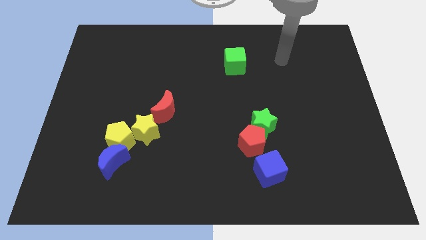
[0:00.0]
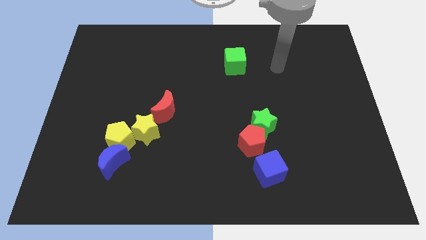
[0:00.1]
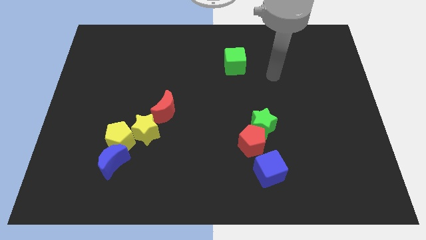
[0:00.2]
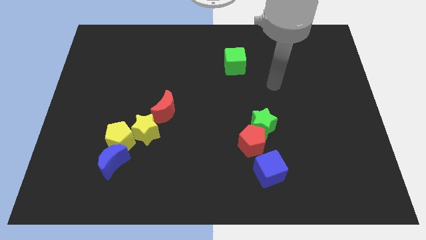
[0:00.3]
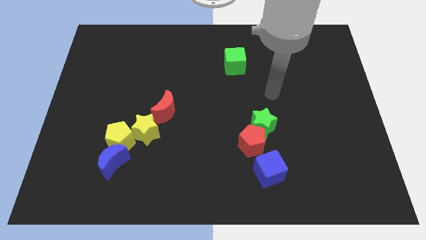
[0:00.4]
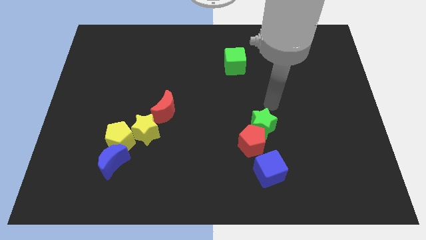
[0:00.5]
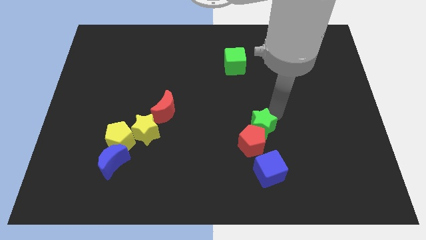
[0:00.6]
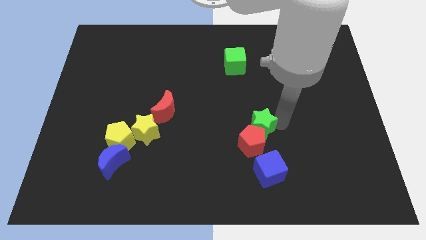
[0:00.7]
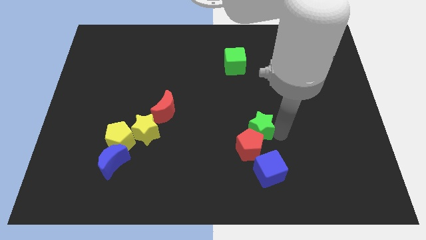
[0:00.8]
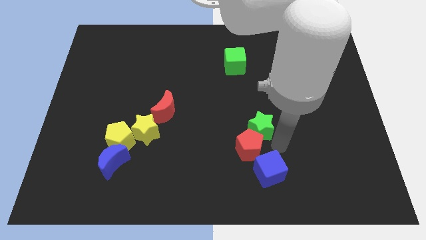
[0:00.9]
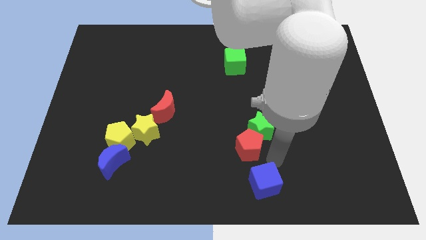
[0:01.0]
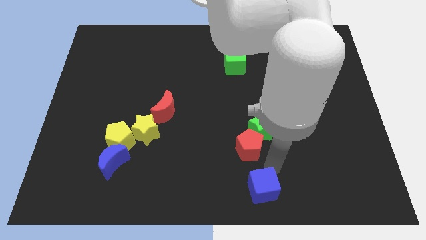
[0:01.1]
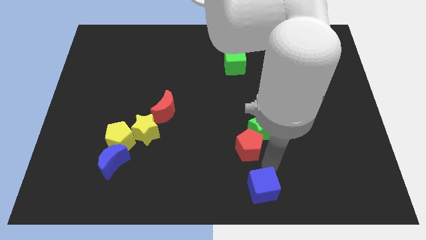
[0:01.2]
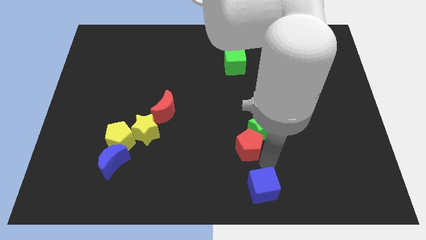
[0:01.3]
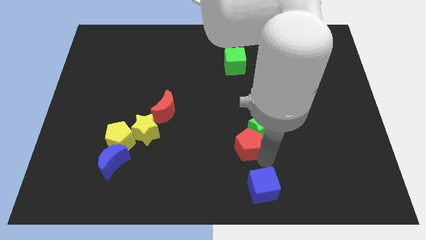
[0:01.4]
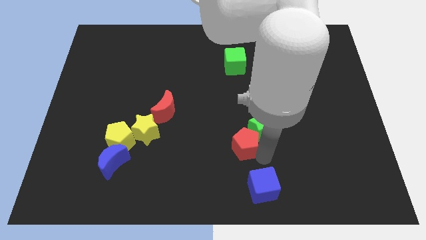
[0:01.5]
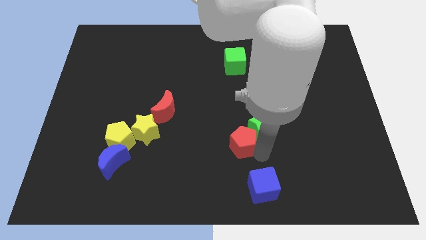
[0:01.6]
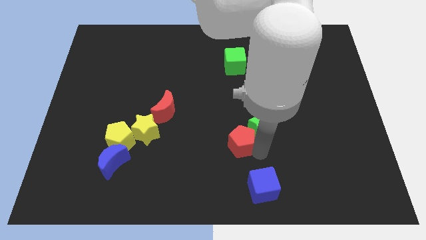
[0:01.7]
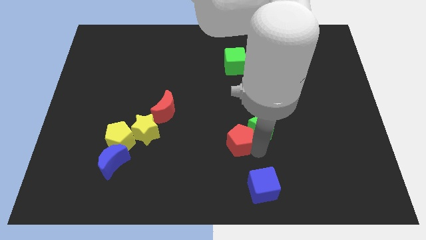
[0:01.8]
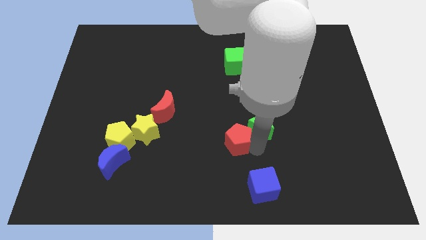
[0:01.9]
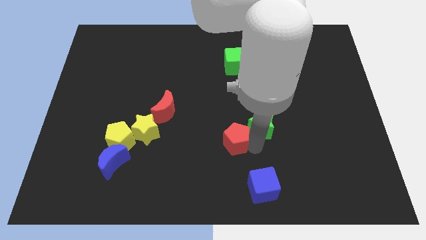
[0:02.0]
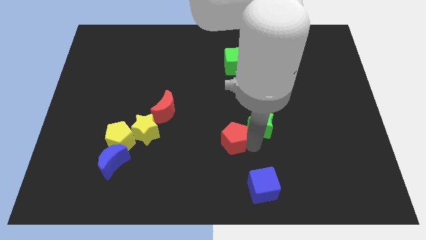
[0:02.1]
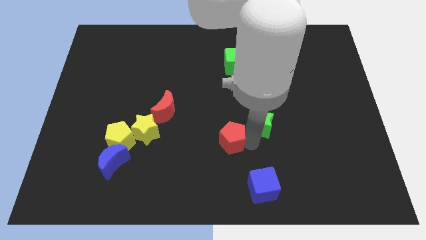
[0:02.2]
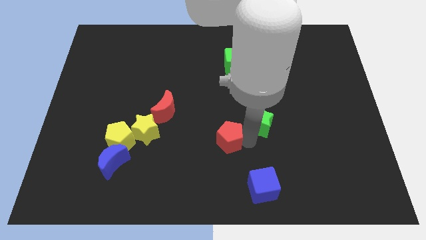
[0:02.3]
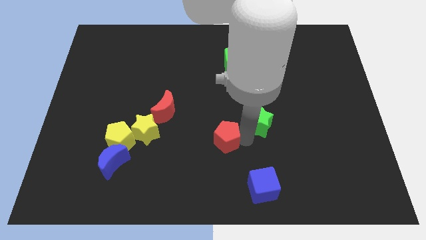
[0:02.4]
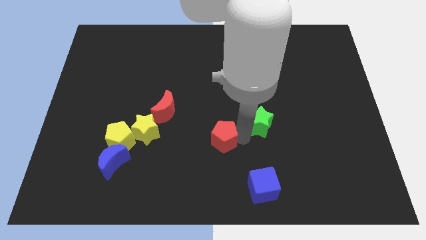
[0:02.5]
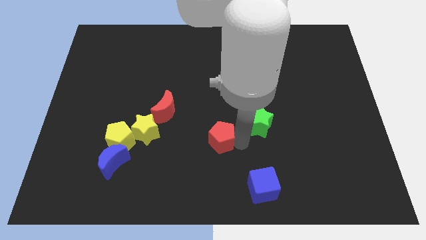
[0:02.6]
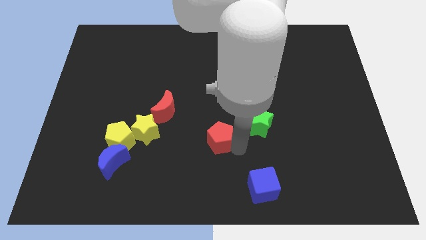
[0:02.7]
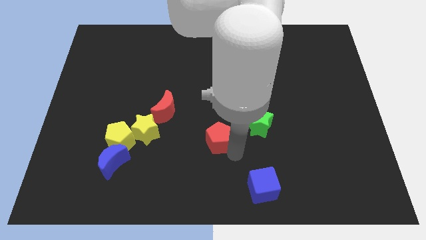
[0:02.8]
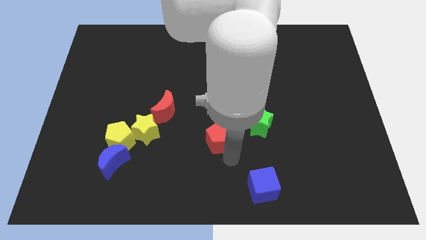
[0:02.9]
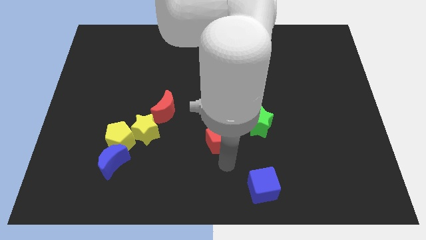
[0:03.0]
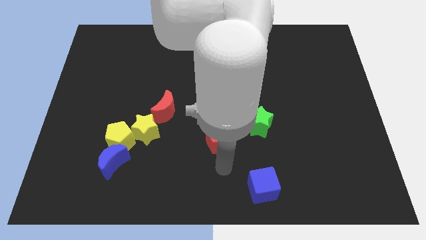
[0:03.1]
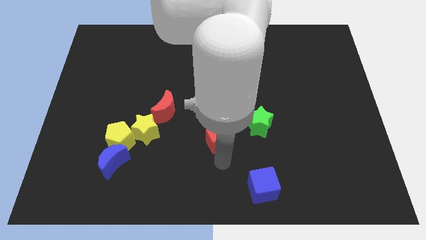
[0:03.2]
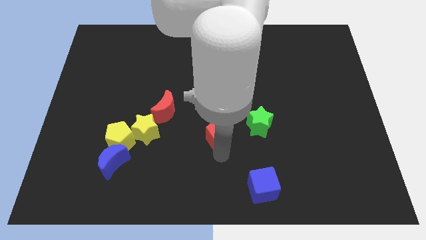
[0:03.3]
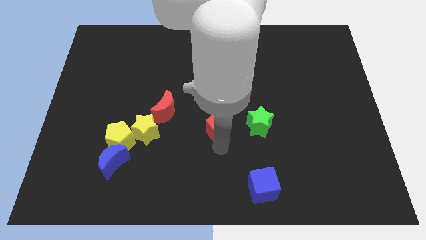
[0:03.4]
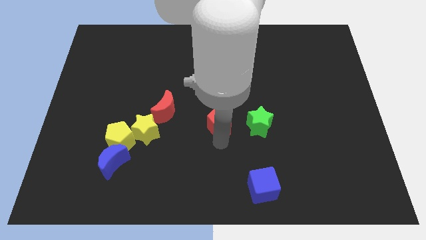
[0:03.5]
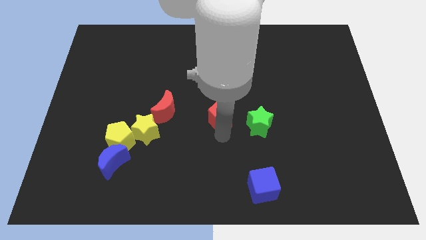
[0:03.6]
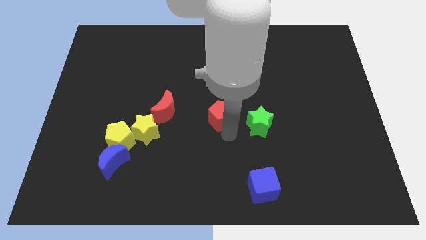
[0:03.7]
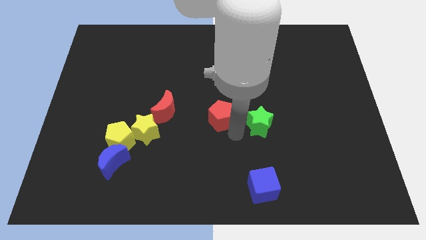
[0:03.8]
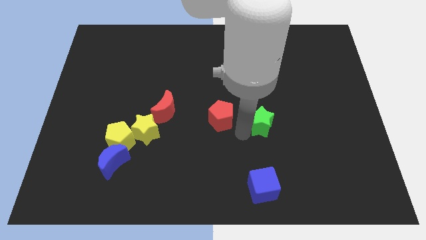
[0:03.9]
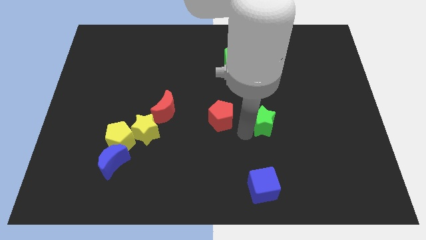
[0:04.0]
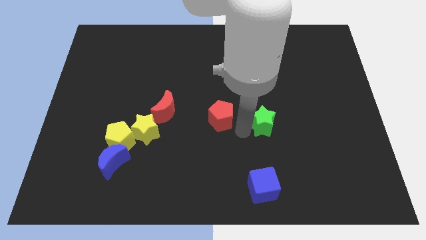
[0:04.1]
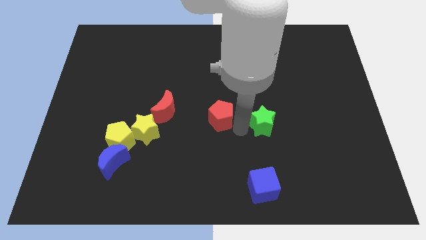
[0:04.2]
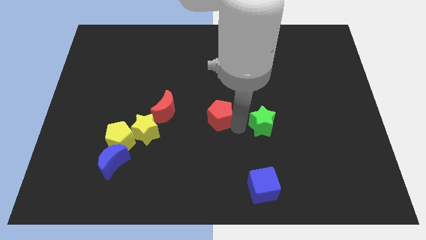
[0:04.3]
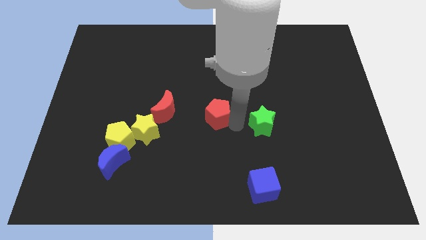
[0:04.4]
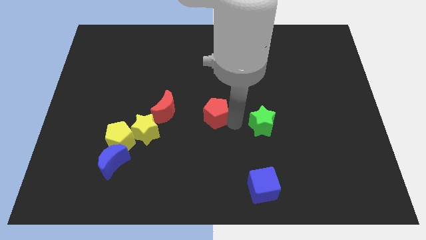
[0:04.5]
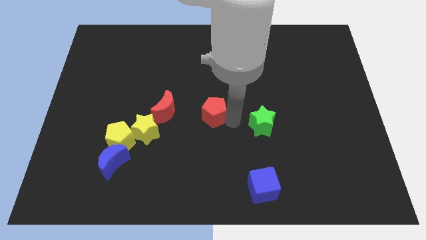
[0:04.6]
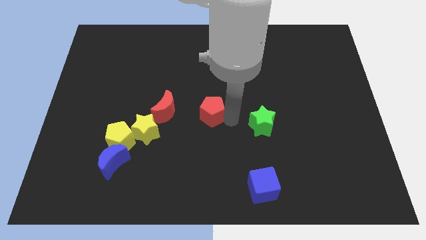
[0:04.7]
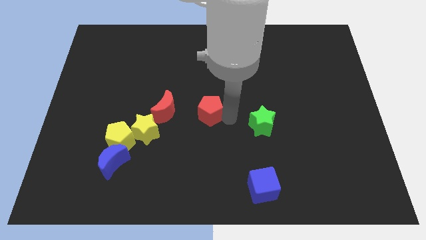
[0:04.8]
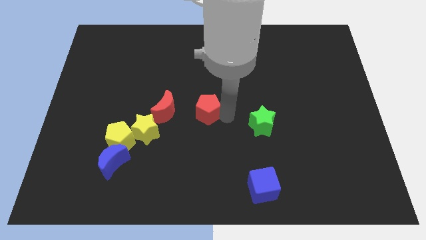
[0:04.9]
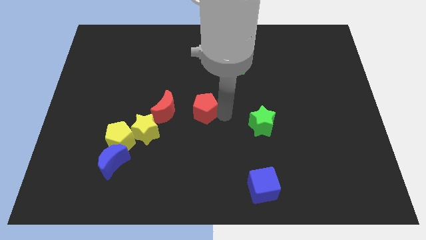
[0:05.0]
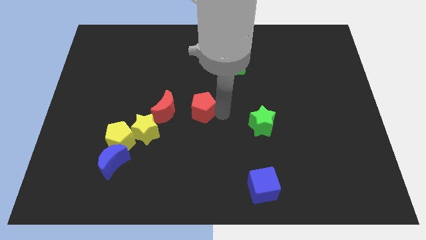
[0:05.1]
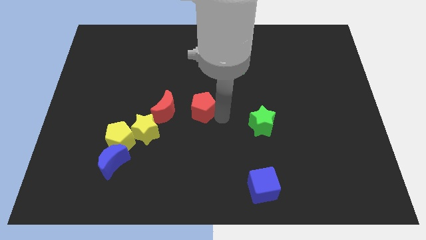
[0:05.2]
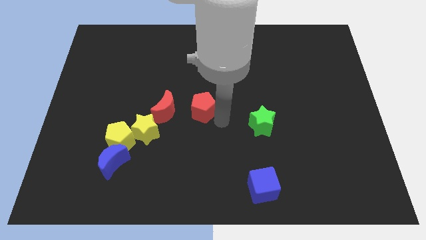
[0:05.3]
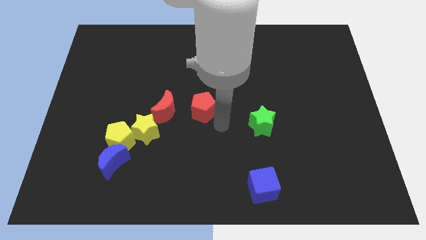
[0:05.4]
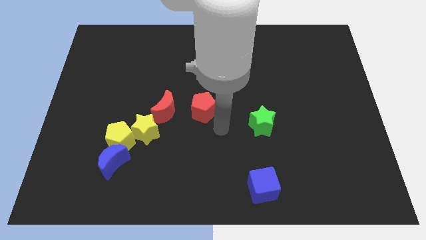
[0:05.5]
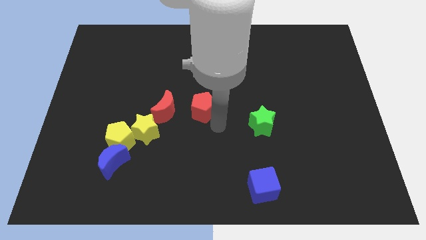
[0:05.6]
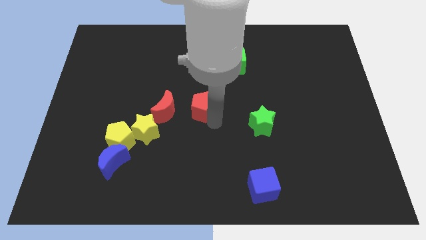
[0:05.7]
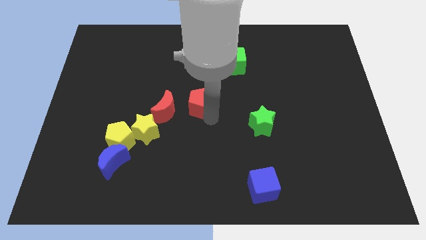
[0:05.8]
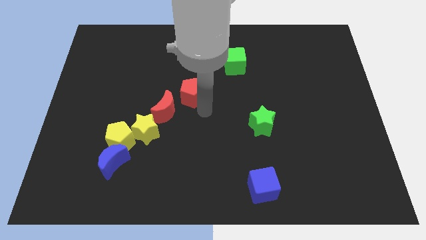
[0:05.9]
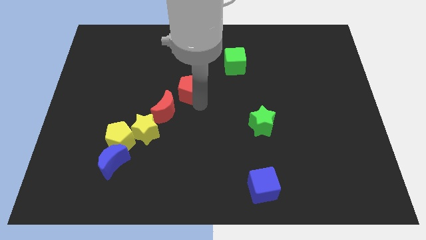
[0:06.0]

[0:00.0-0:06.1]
push the red pentagon upwards and then to the left

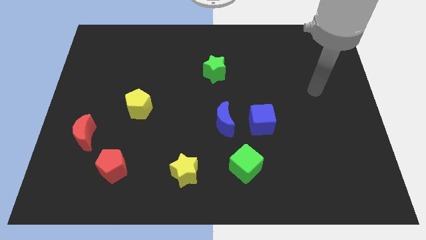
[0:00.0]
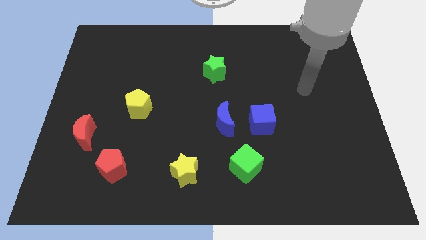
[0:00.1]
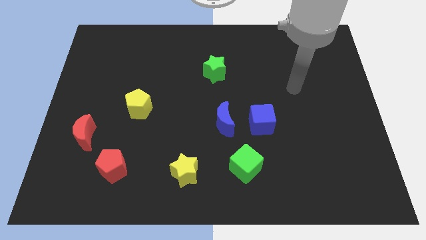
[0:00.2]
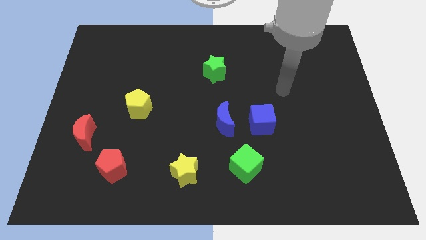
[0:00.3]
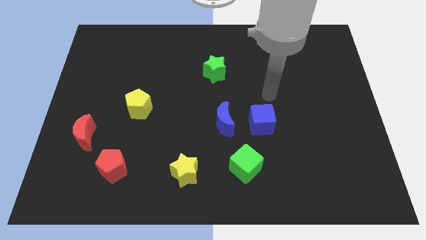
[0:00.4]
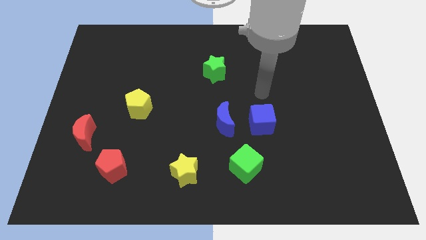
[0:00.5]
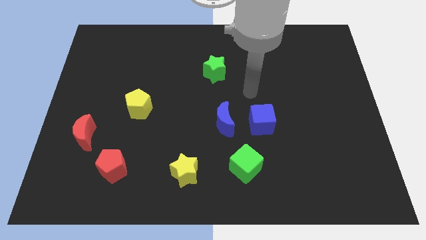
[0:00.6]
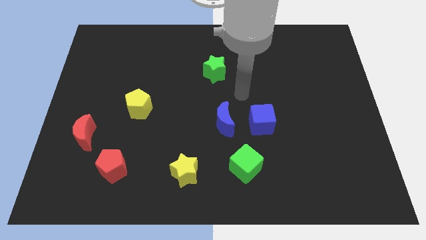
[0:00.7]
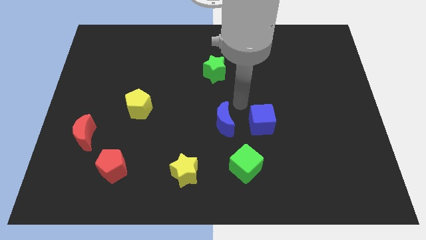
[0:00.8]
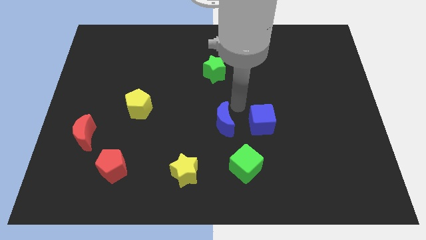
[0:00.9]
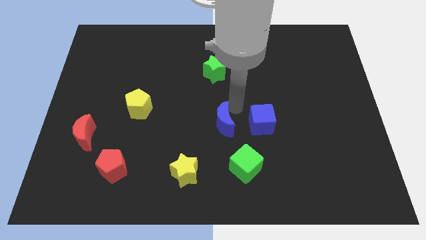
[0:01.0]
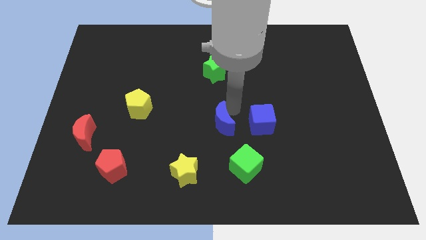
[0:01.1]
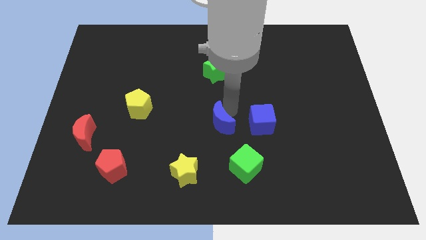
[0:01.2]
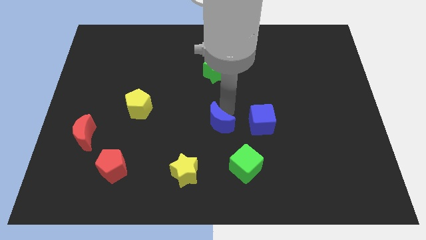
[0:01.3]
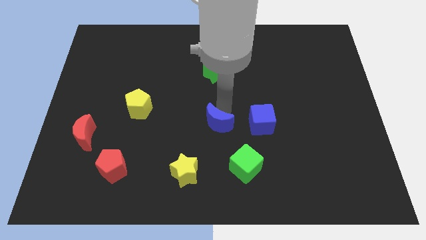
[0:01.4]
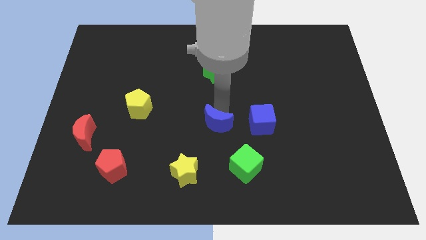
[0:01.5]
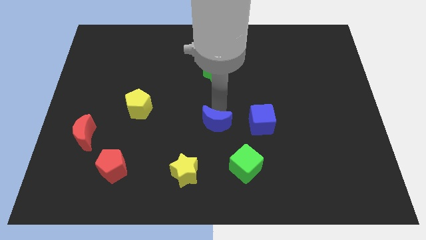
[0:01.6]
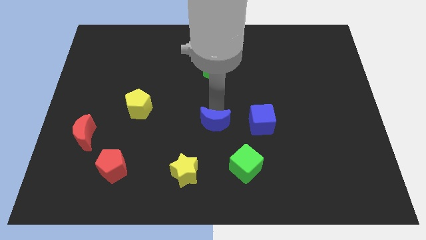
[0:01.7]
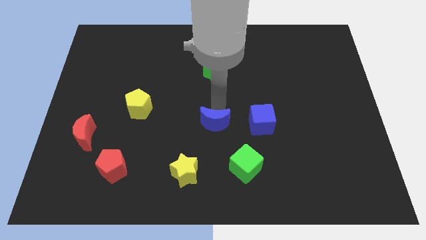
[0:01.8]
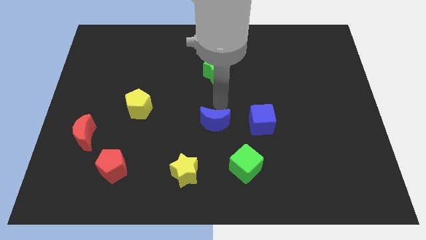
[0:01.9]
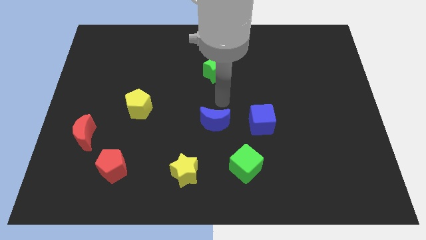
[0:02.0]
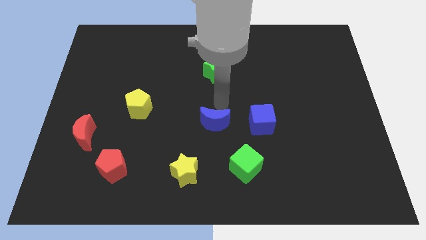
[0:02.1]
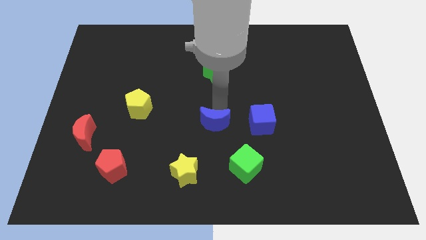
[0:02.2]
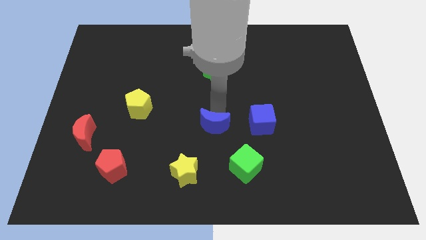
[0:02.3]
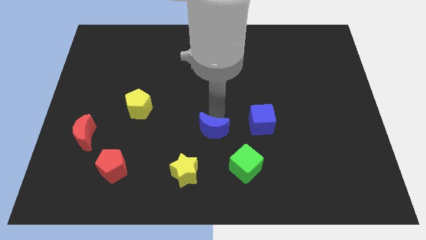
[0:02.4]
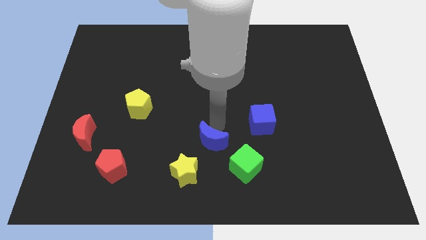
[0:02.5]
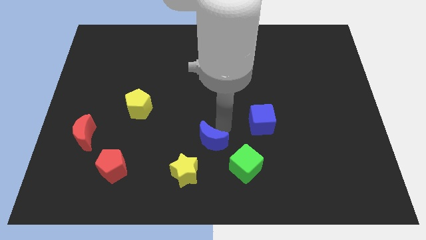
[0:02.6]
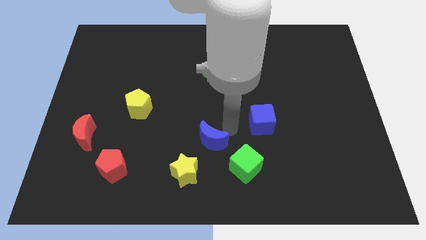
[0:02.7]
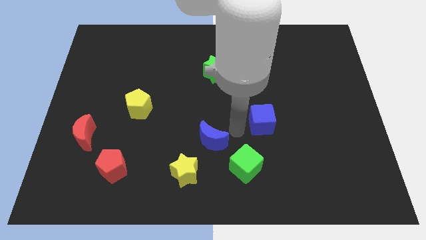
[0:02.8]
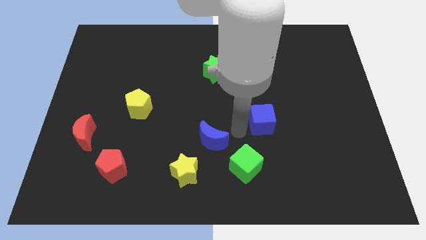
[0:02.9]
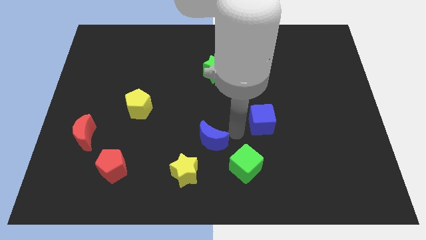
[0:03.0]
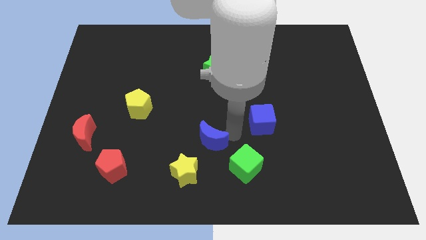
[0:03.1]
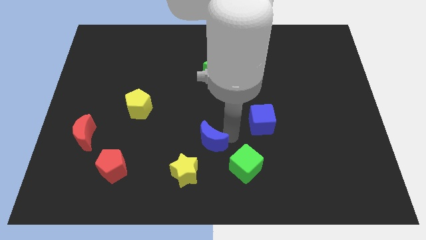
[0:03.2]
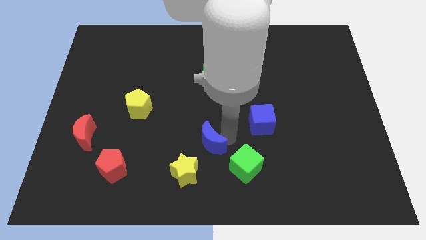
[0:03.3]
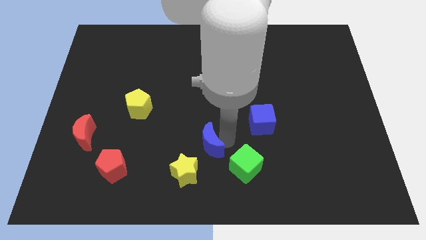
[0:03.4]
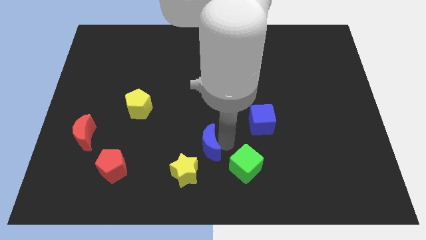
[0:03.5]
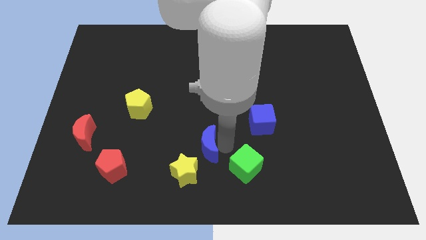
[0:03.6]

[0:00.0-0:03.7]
slide the blue moon a bit diagonally down and to the left
